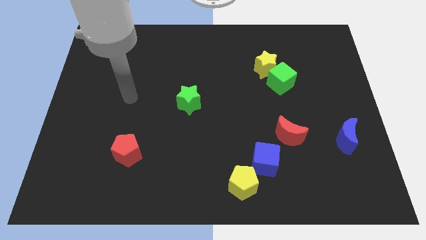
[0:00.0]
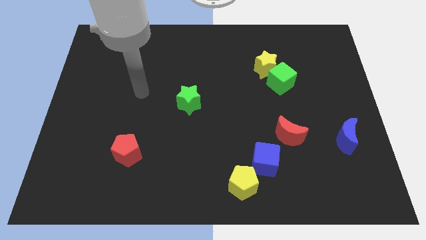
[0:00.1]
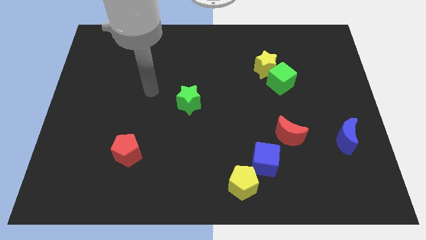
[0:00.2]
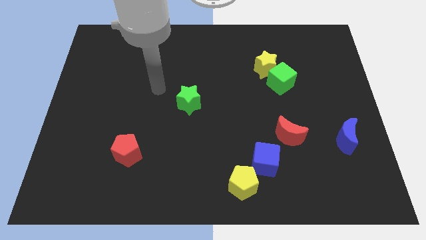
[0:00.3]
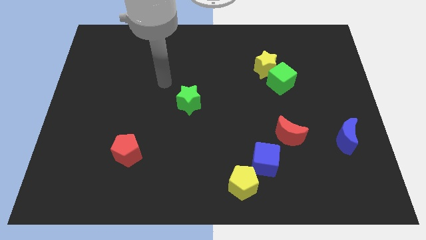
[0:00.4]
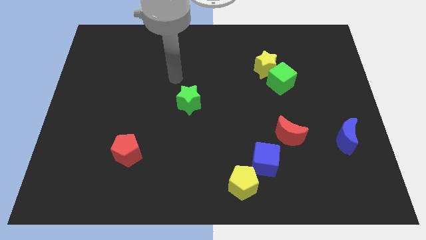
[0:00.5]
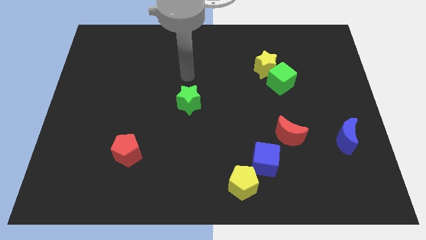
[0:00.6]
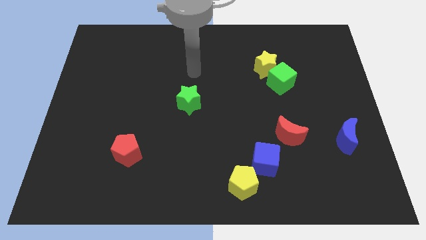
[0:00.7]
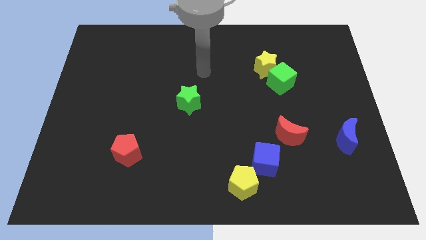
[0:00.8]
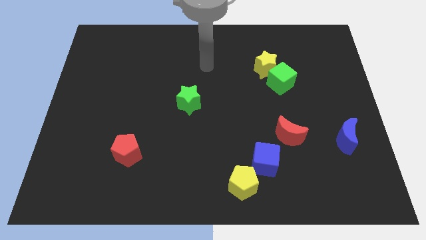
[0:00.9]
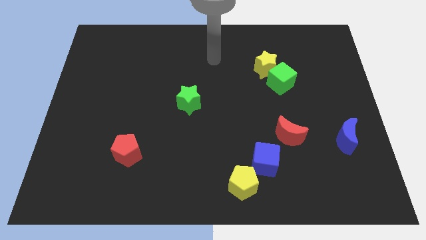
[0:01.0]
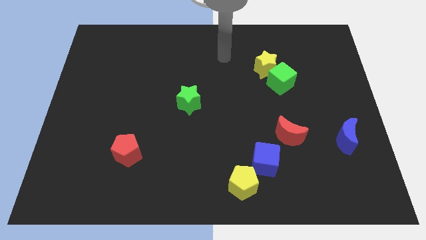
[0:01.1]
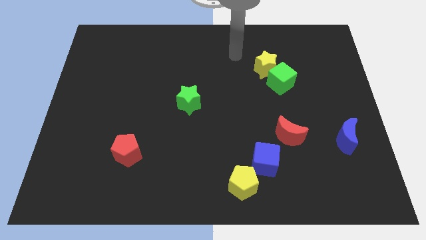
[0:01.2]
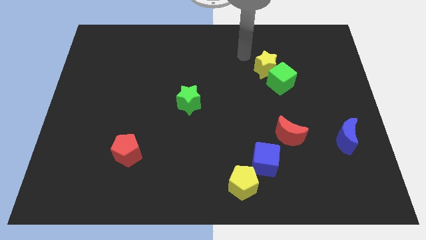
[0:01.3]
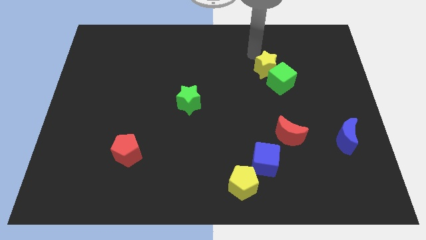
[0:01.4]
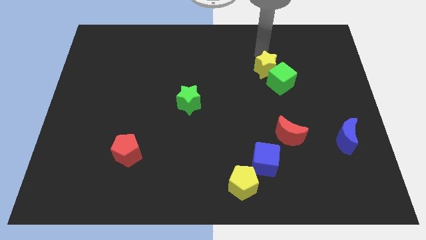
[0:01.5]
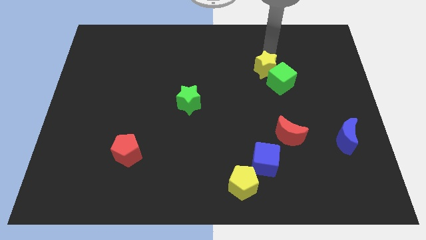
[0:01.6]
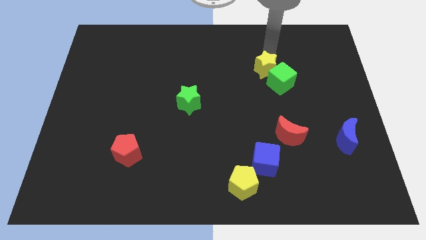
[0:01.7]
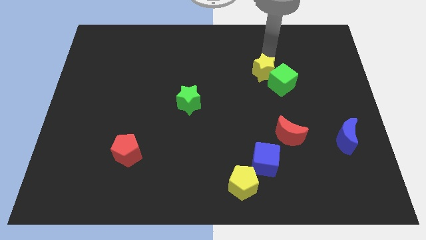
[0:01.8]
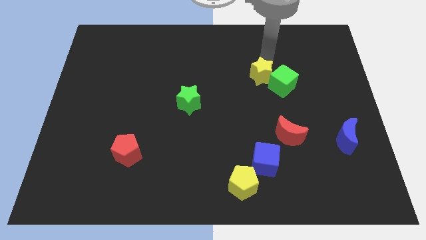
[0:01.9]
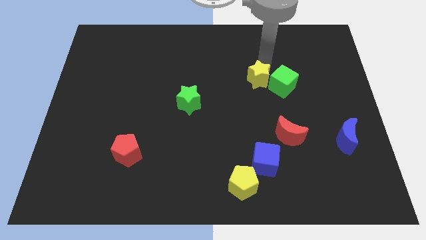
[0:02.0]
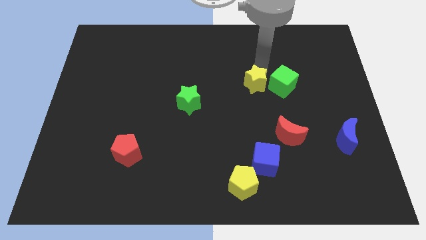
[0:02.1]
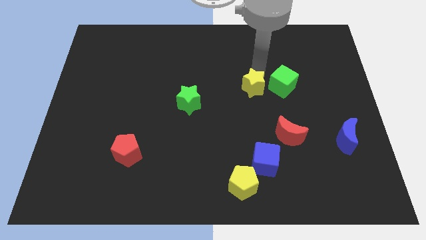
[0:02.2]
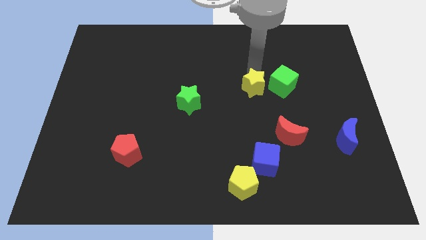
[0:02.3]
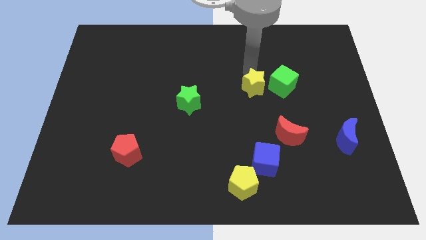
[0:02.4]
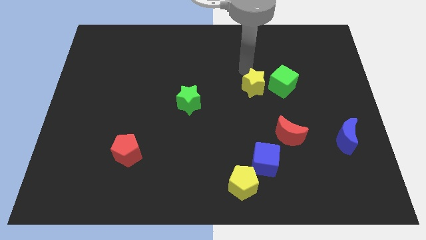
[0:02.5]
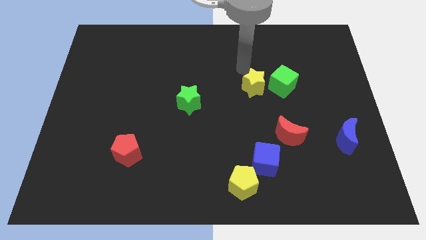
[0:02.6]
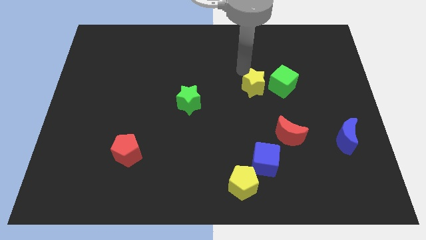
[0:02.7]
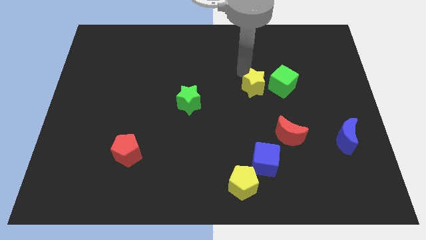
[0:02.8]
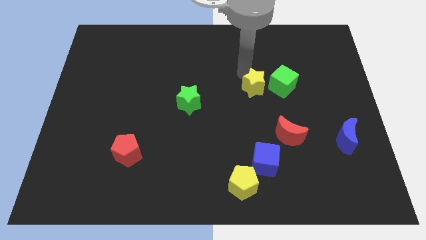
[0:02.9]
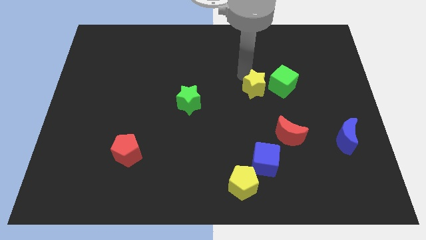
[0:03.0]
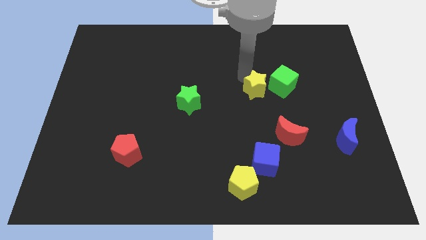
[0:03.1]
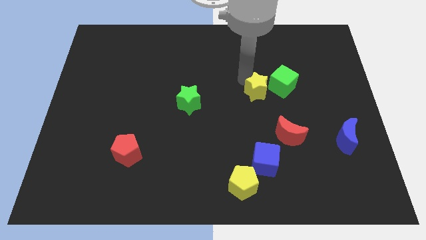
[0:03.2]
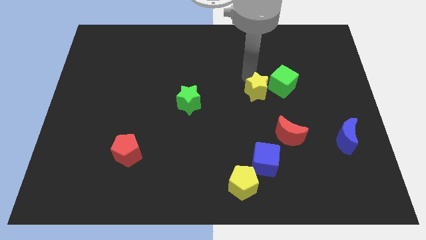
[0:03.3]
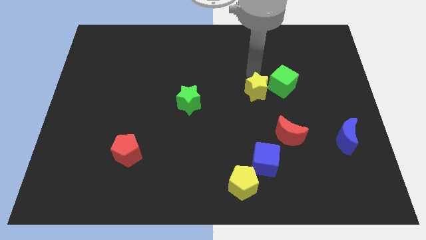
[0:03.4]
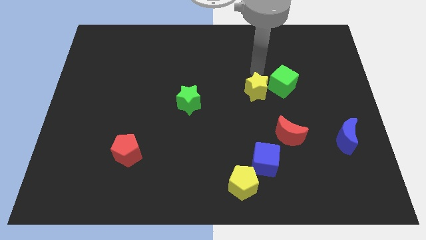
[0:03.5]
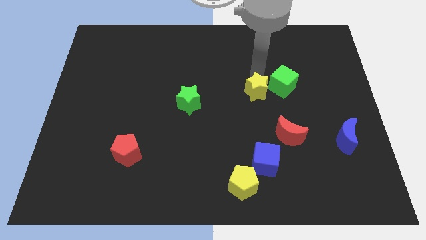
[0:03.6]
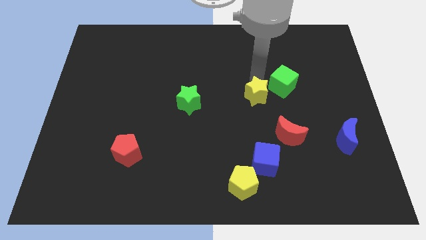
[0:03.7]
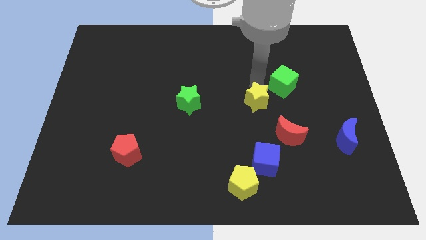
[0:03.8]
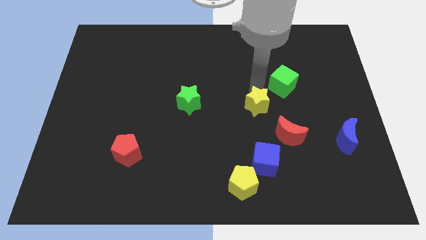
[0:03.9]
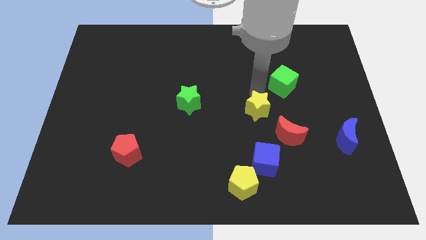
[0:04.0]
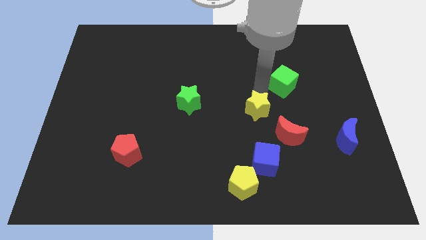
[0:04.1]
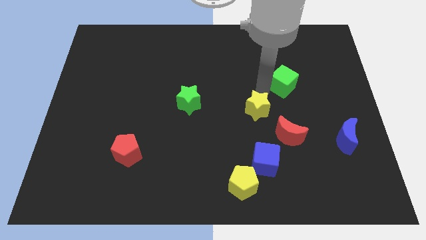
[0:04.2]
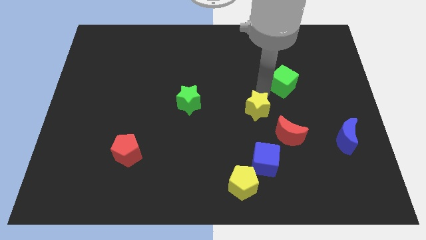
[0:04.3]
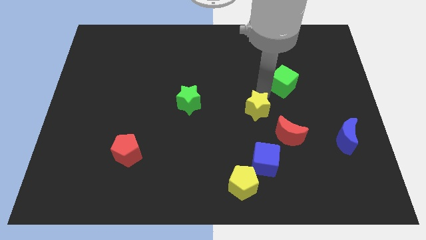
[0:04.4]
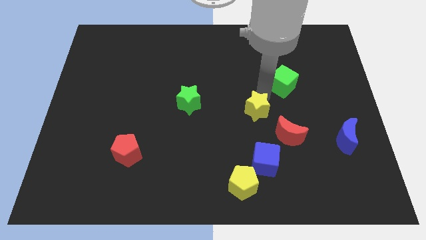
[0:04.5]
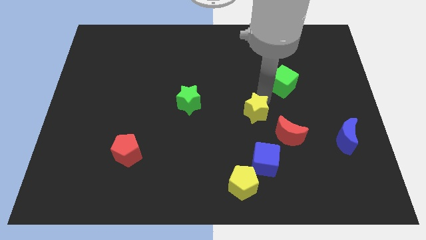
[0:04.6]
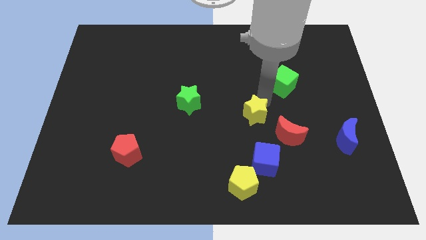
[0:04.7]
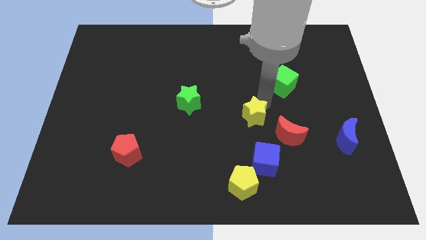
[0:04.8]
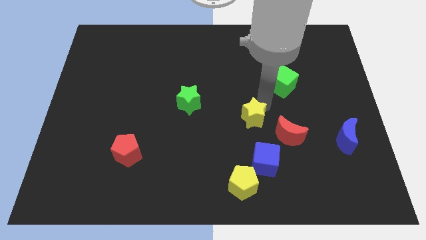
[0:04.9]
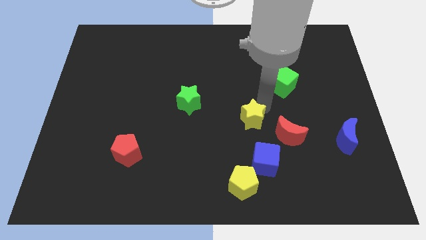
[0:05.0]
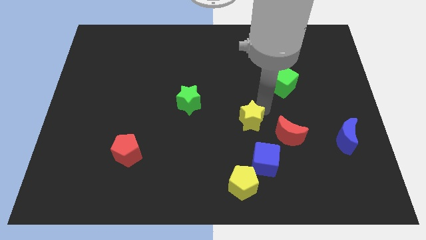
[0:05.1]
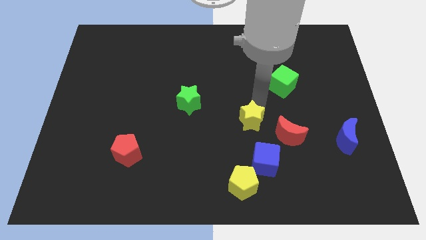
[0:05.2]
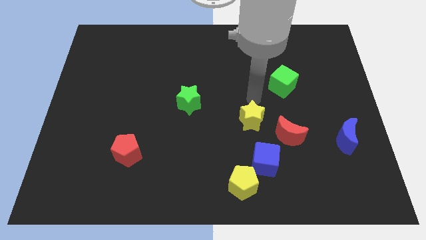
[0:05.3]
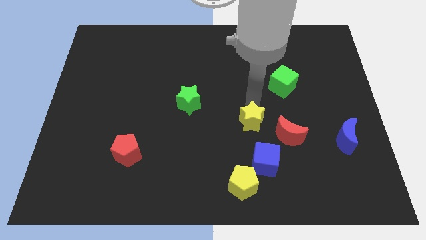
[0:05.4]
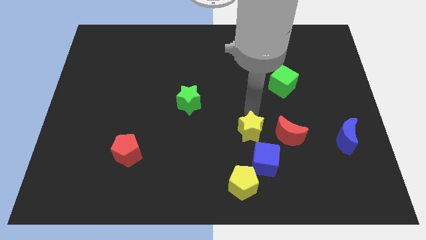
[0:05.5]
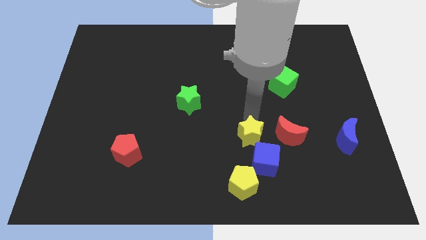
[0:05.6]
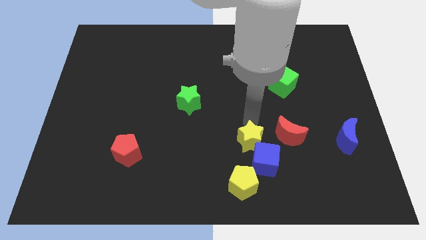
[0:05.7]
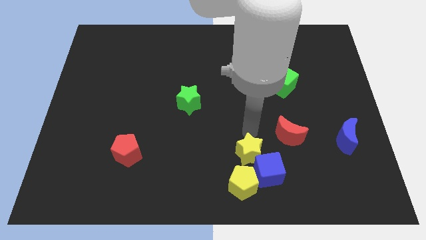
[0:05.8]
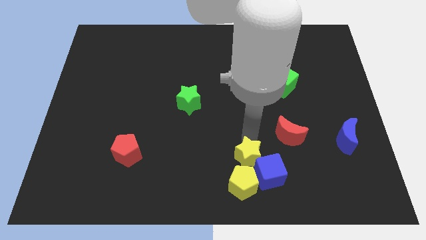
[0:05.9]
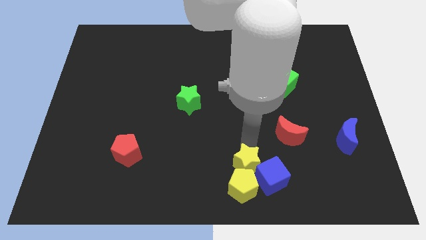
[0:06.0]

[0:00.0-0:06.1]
move the yellow star towards the yellow pentagon
